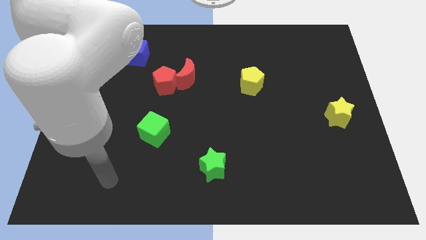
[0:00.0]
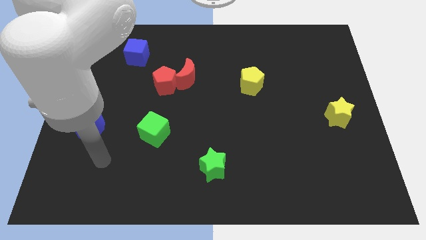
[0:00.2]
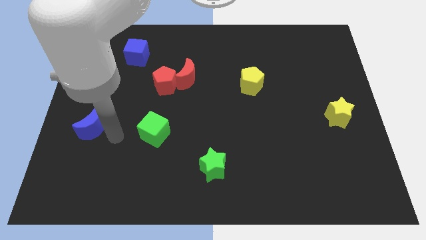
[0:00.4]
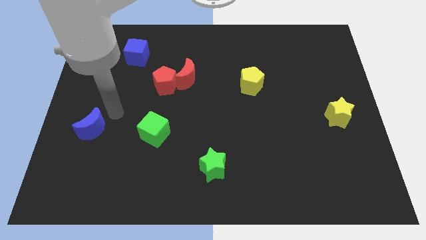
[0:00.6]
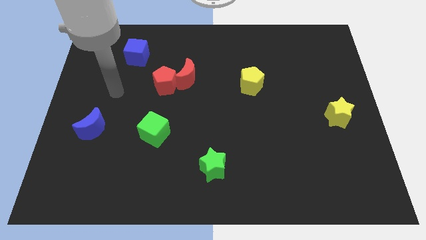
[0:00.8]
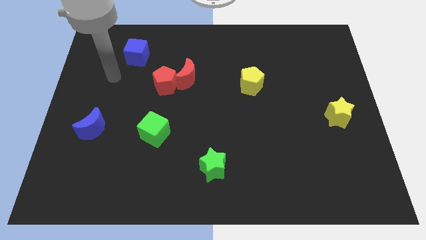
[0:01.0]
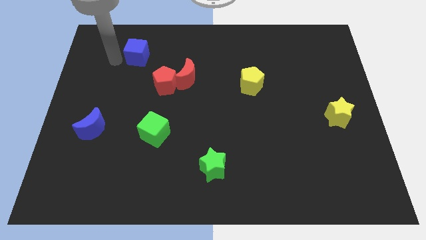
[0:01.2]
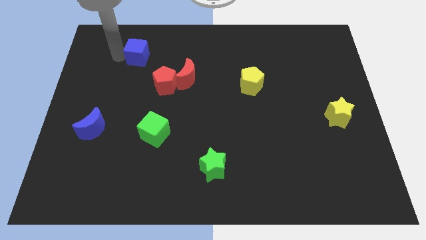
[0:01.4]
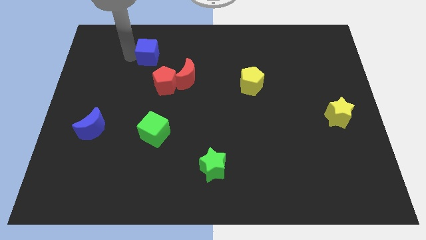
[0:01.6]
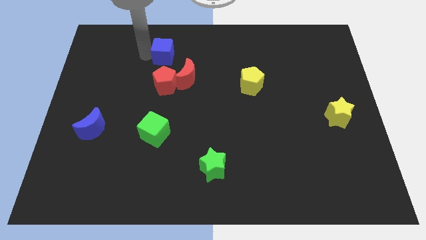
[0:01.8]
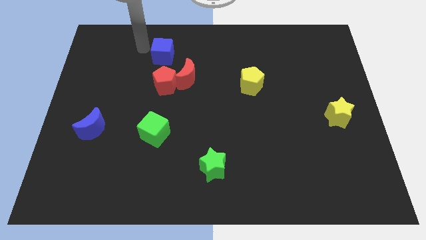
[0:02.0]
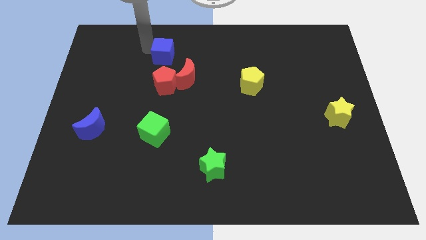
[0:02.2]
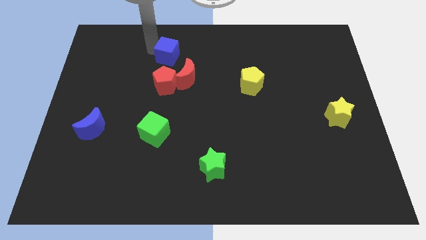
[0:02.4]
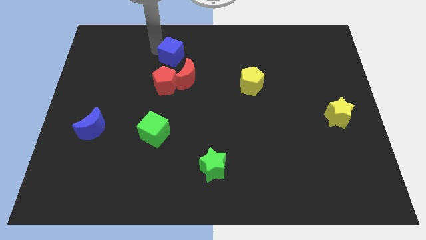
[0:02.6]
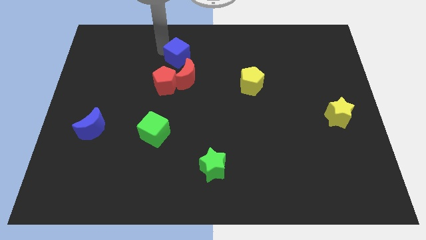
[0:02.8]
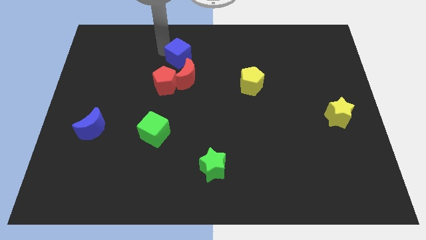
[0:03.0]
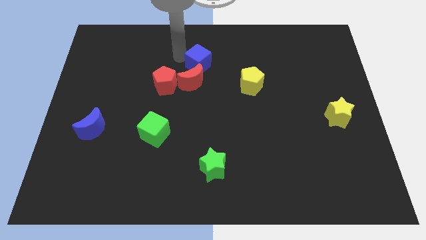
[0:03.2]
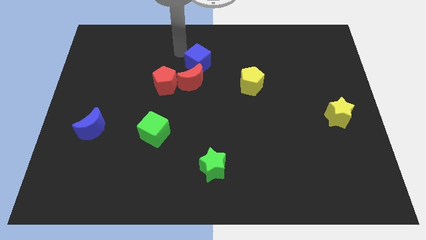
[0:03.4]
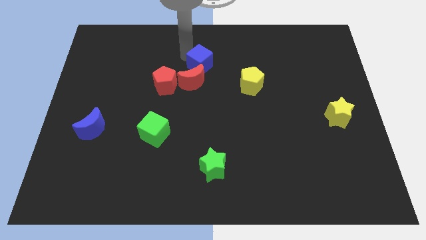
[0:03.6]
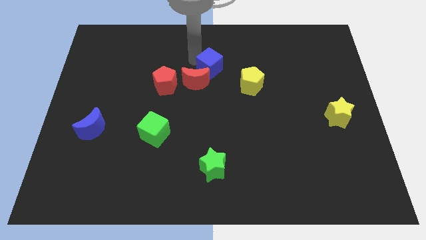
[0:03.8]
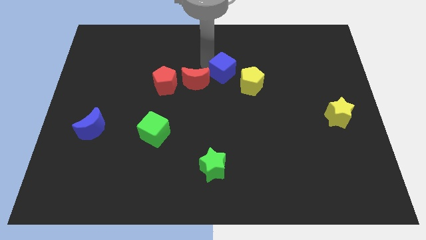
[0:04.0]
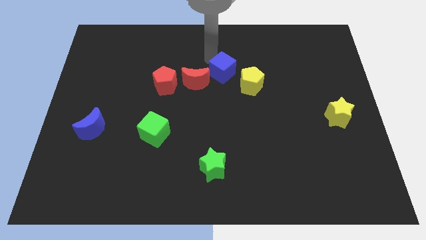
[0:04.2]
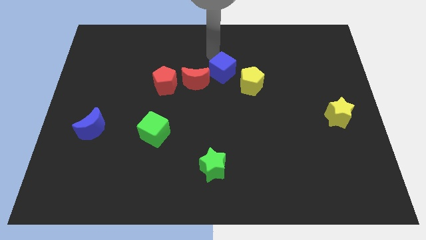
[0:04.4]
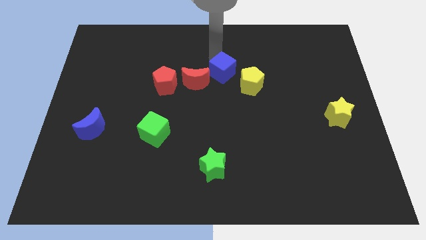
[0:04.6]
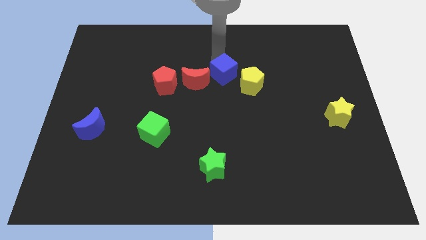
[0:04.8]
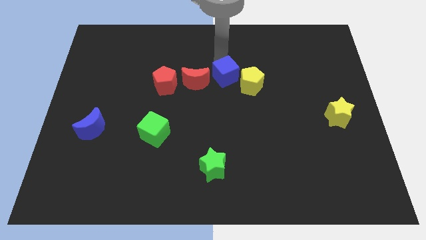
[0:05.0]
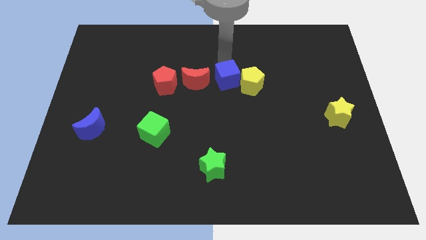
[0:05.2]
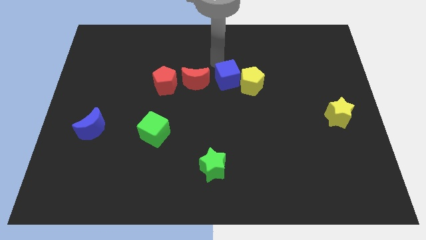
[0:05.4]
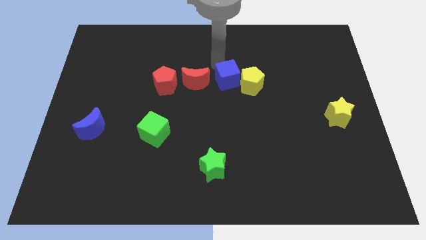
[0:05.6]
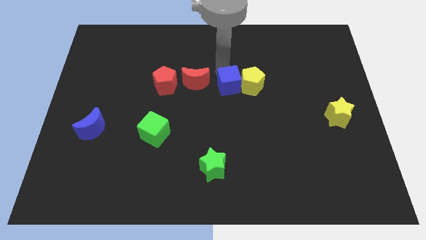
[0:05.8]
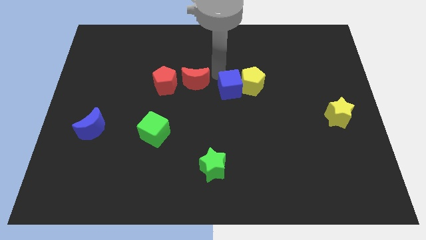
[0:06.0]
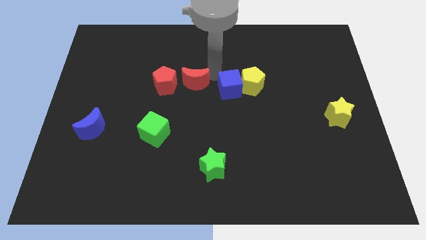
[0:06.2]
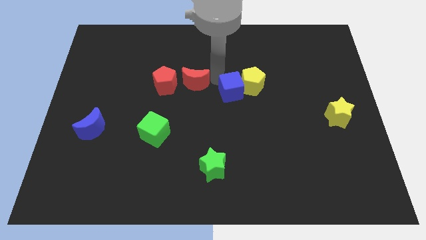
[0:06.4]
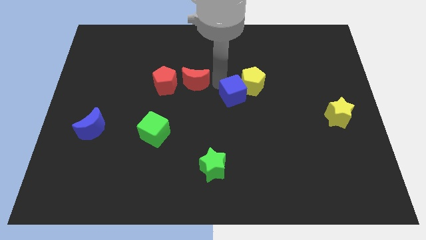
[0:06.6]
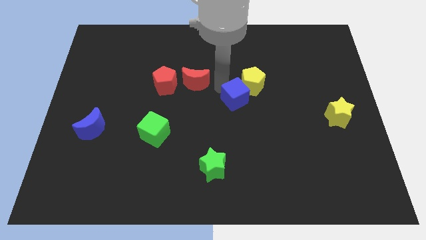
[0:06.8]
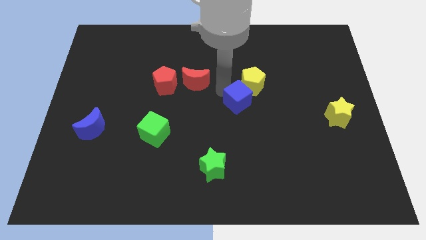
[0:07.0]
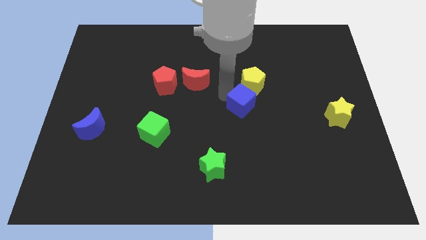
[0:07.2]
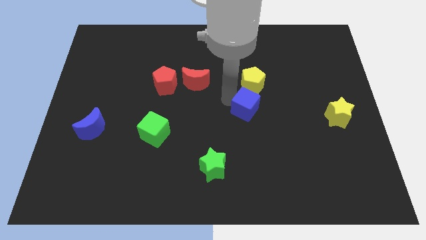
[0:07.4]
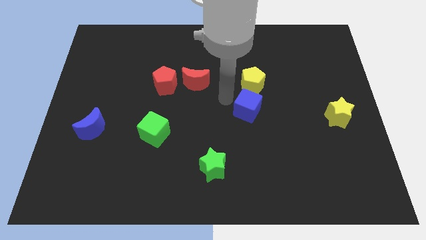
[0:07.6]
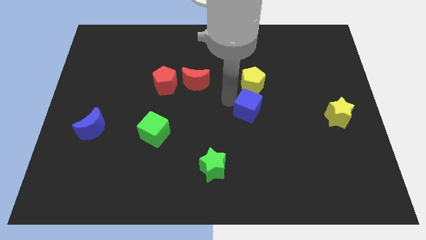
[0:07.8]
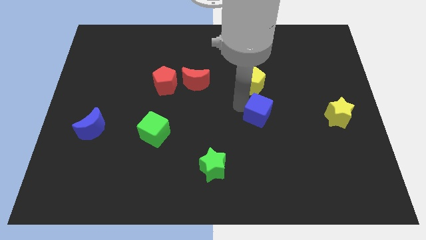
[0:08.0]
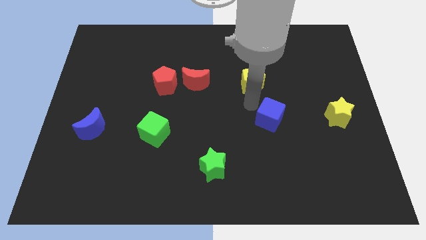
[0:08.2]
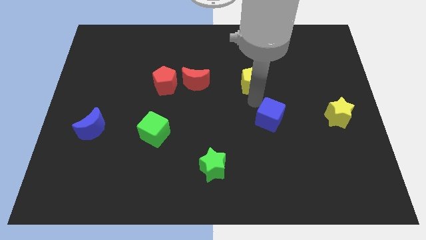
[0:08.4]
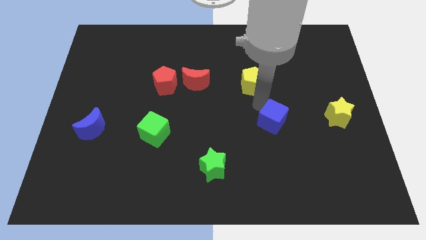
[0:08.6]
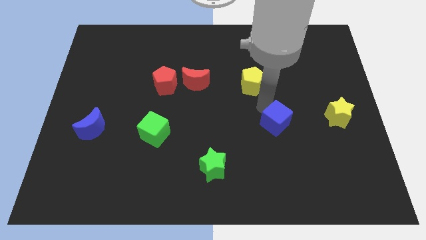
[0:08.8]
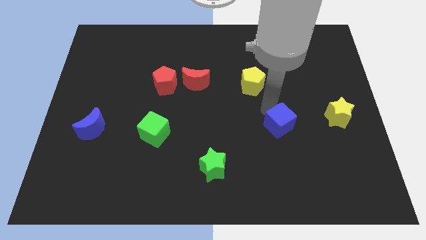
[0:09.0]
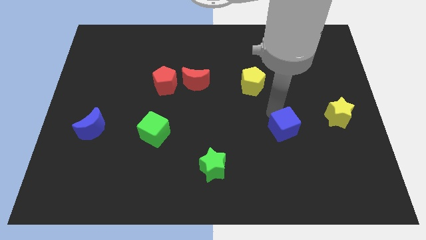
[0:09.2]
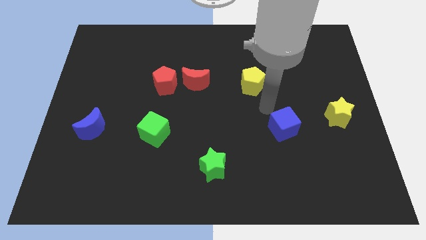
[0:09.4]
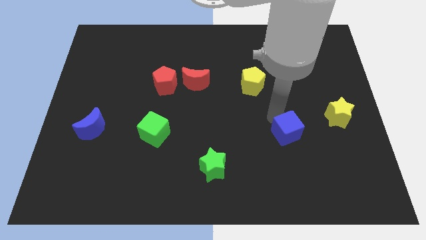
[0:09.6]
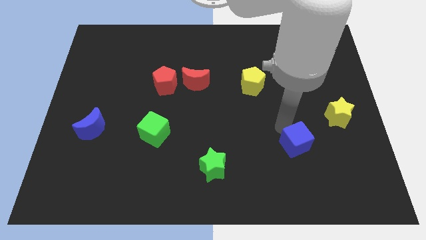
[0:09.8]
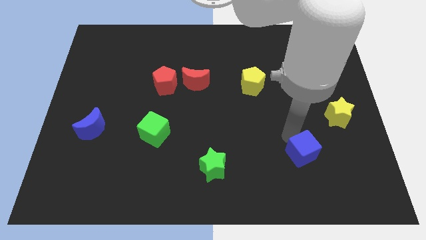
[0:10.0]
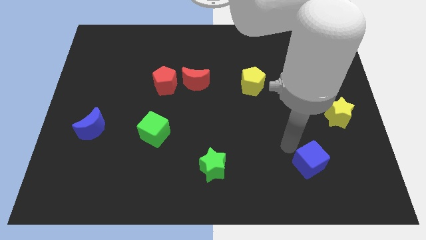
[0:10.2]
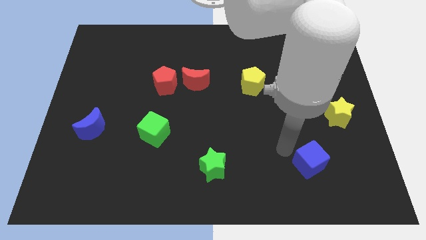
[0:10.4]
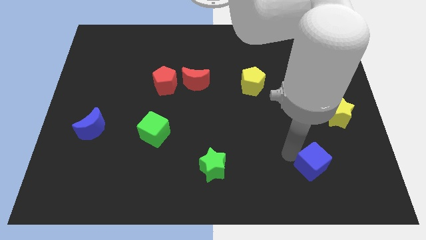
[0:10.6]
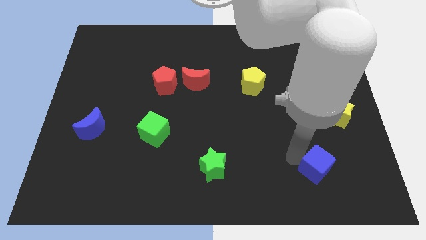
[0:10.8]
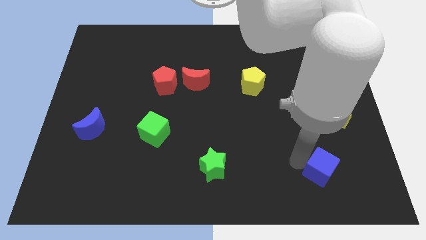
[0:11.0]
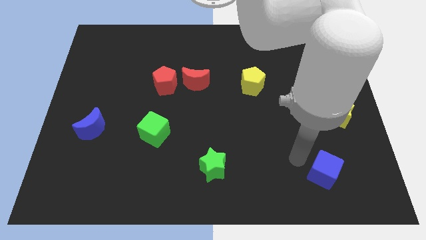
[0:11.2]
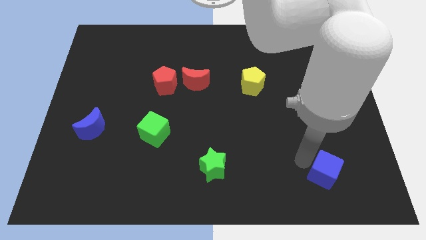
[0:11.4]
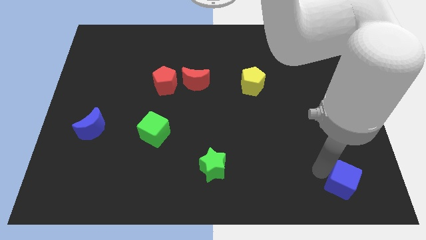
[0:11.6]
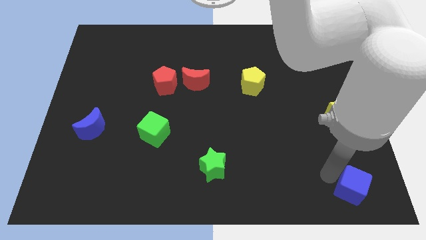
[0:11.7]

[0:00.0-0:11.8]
push the blue cube to the bottom right of the board
